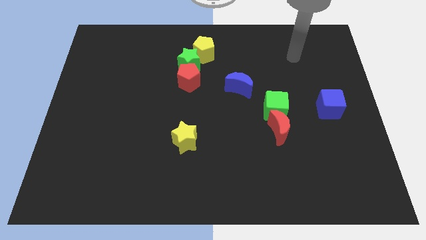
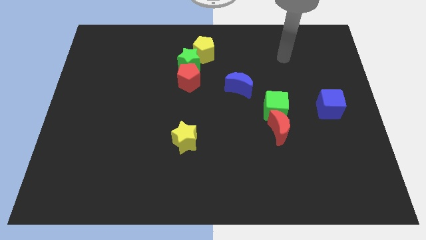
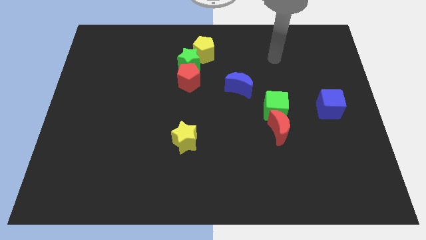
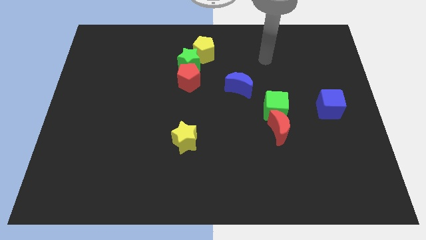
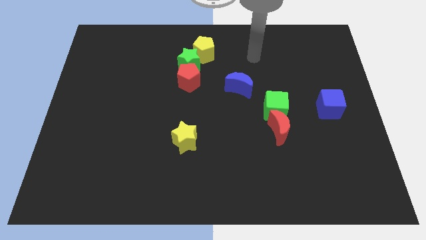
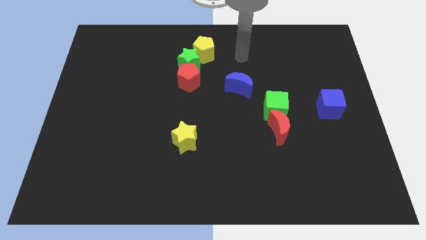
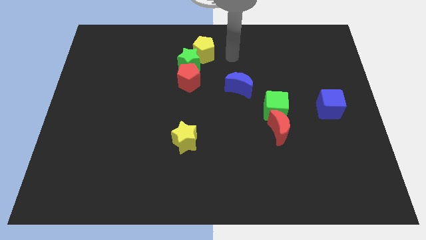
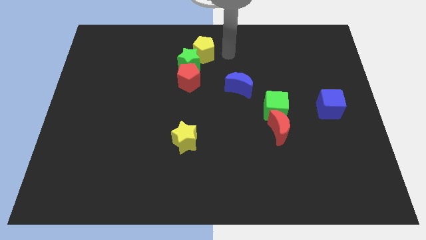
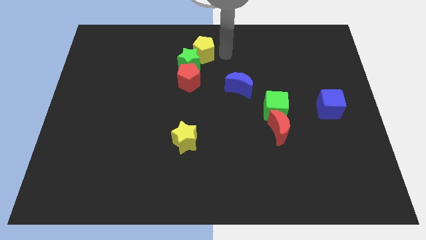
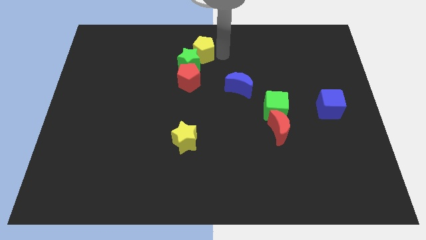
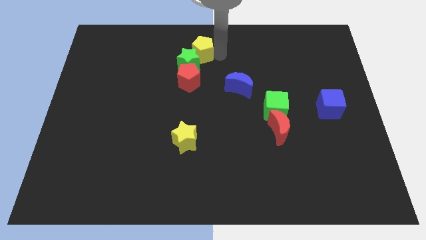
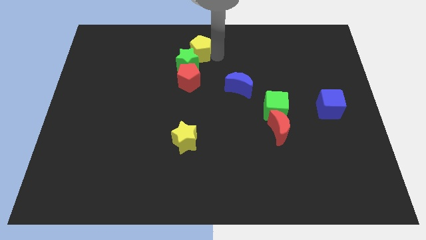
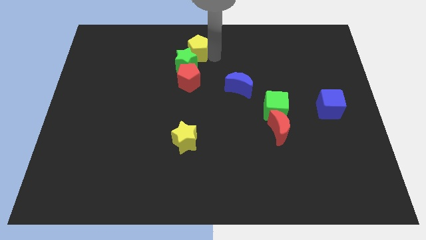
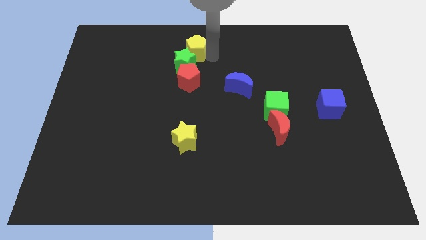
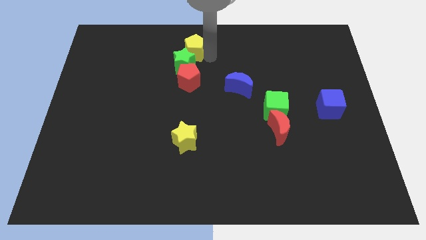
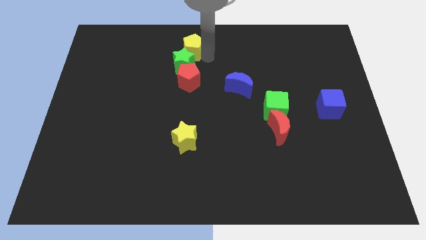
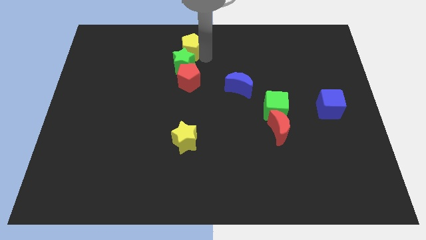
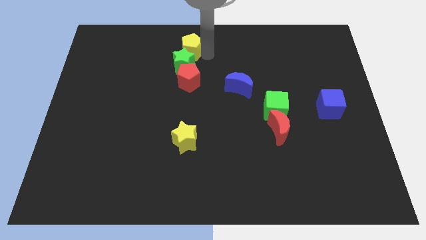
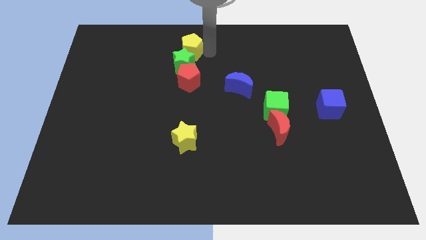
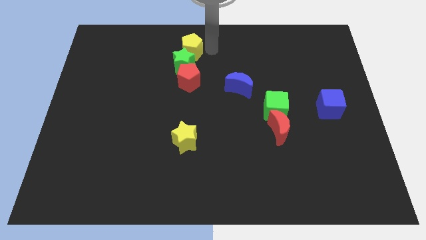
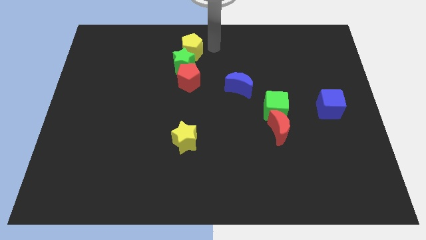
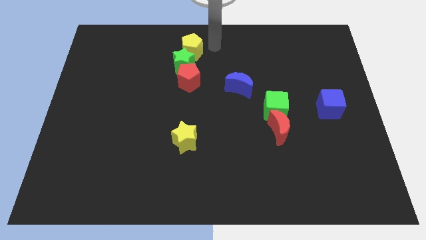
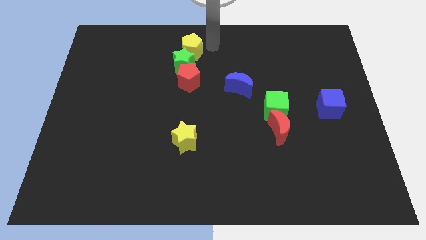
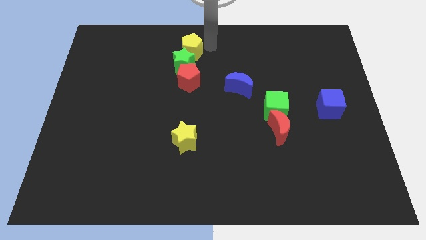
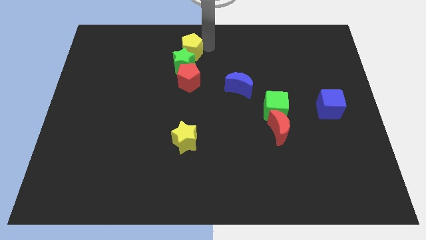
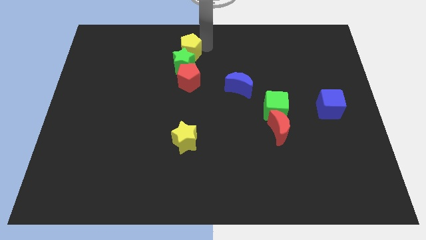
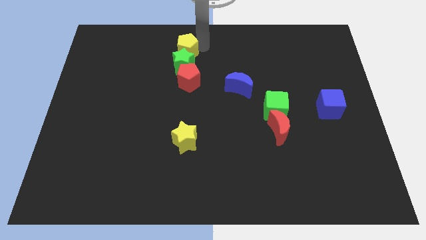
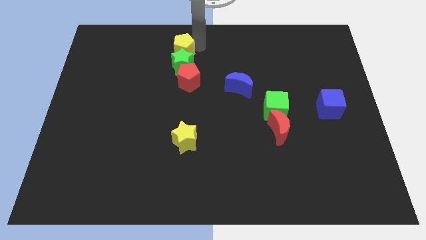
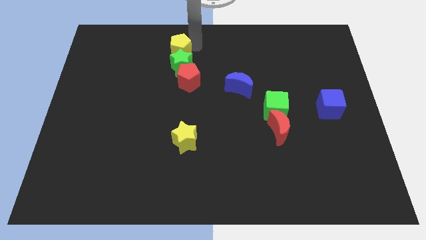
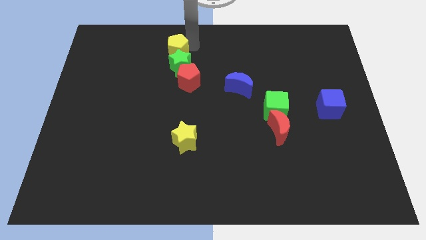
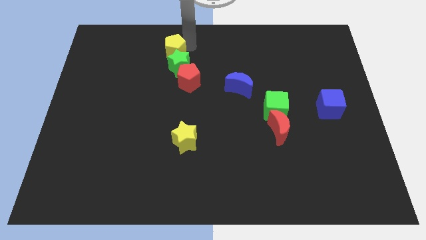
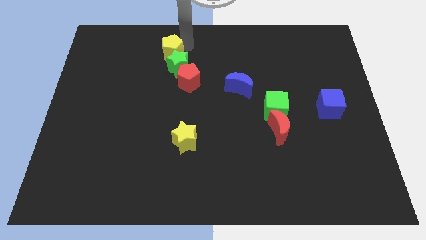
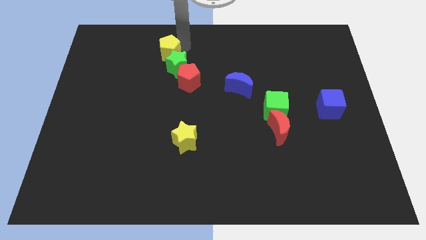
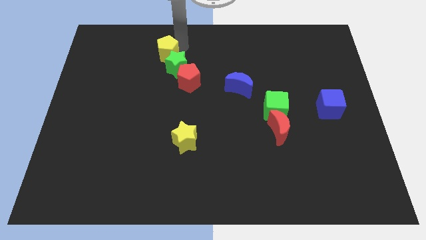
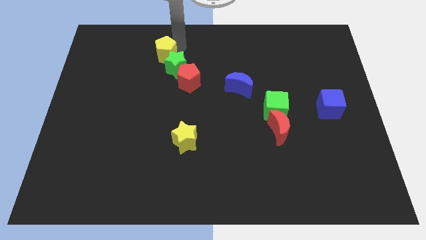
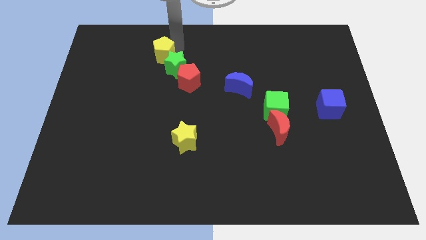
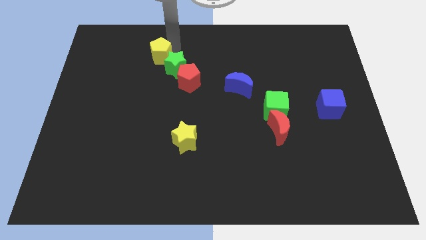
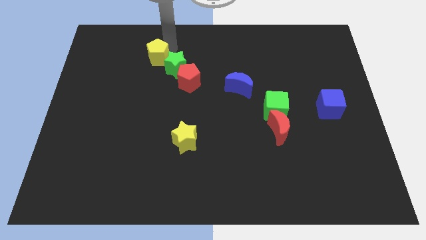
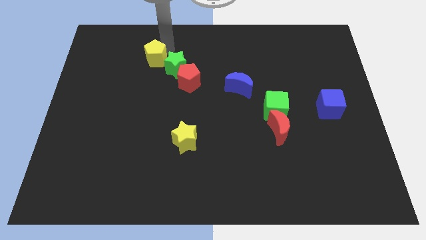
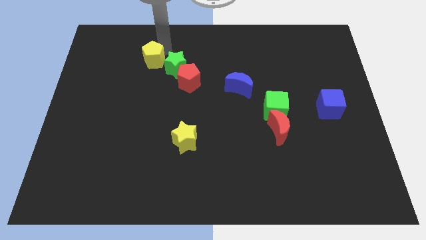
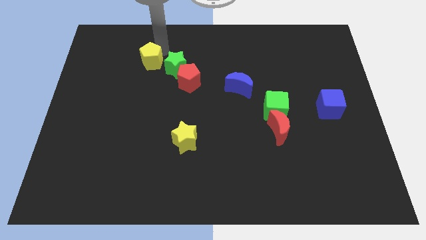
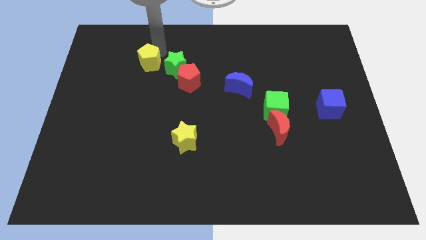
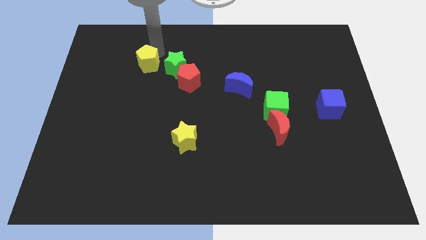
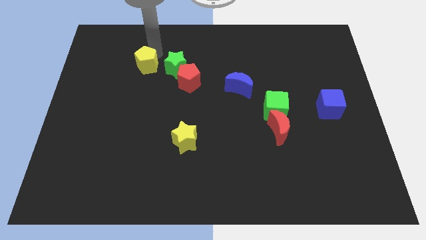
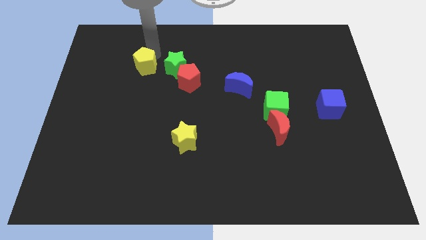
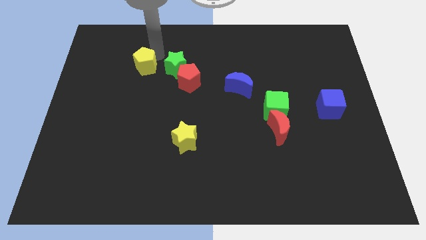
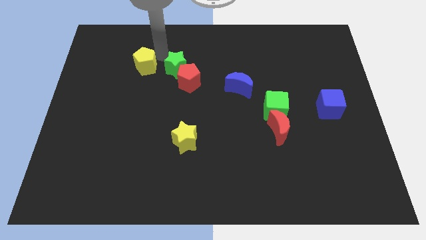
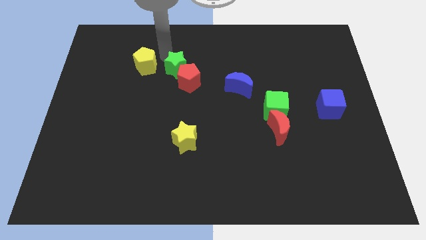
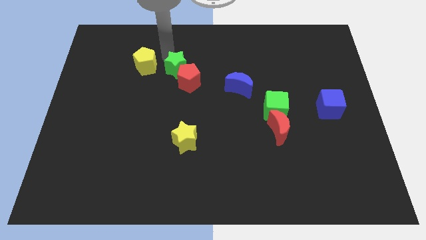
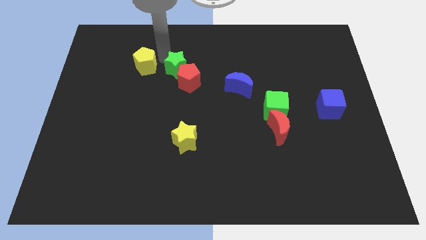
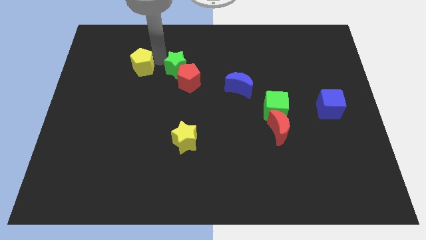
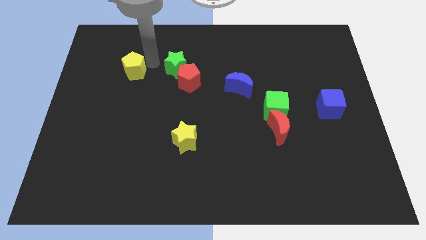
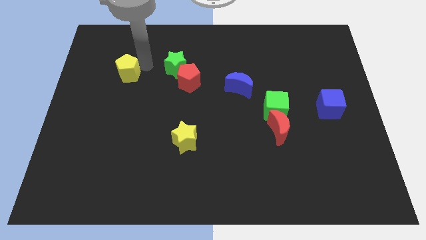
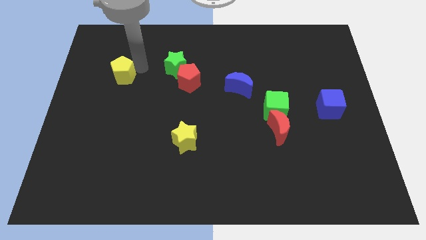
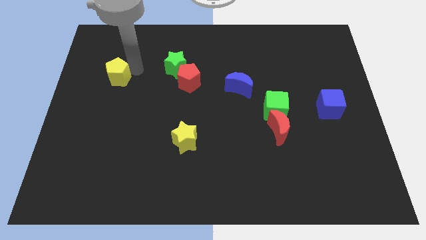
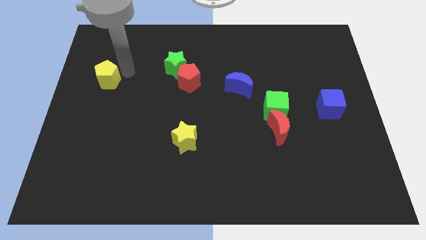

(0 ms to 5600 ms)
put the yellow pentagon to the left side

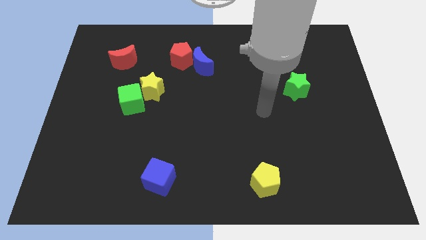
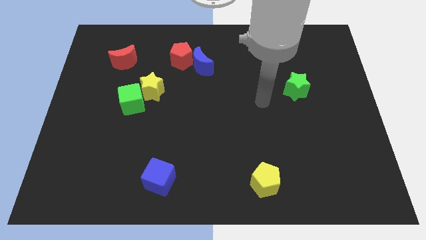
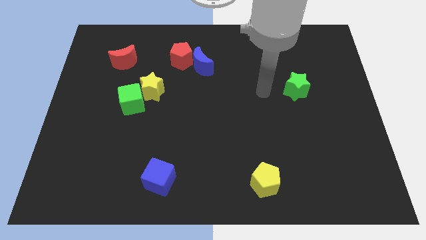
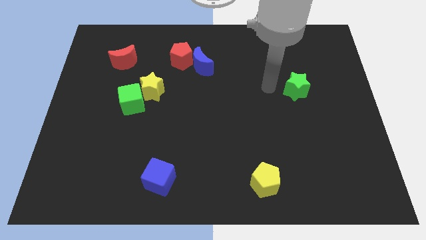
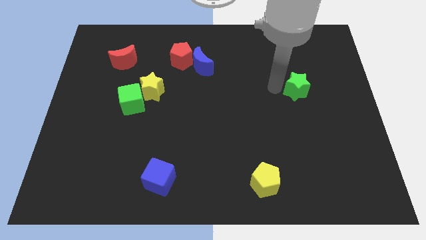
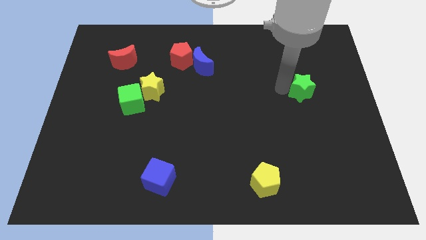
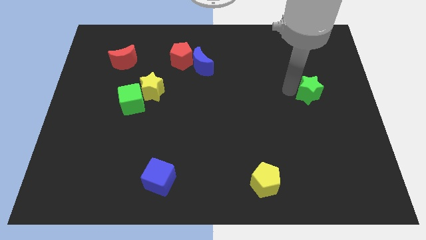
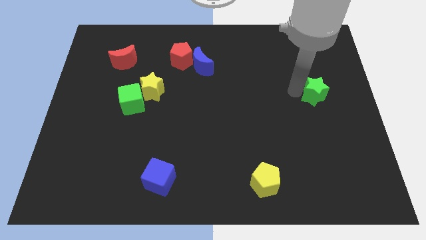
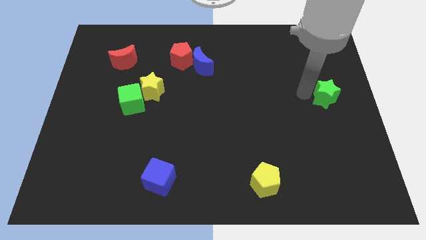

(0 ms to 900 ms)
move the green star to the center right
